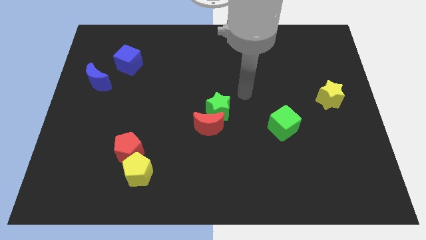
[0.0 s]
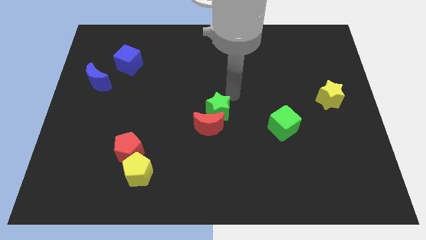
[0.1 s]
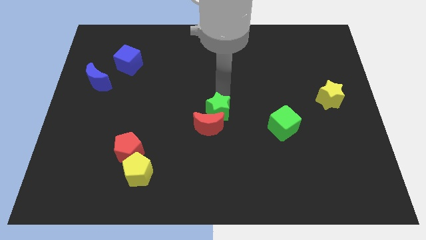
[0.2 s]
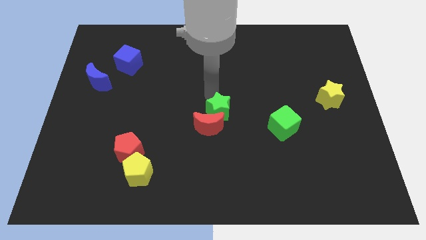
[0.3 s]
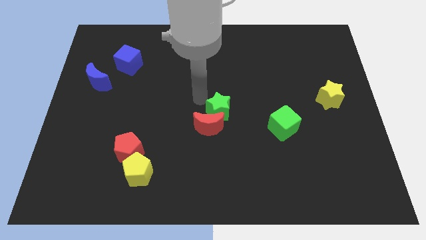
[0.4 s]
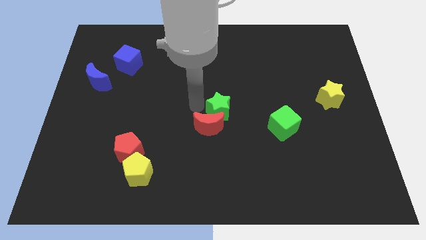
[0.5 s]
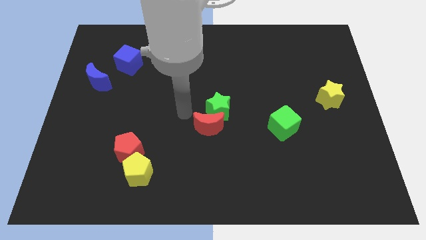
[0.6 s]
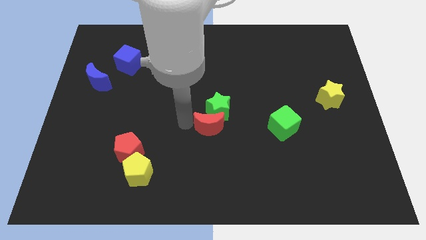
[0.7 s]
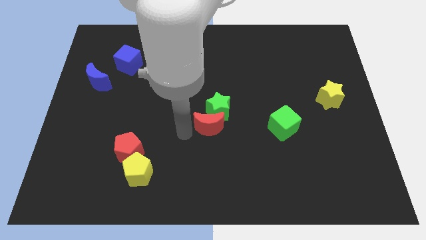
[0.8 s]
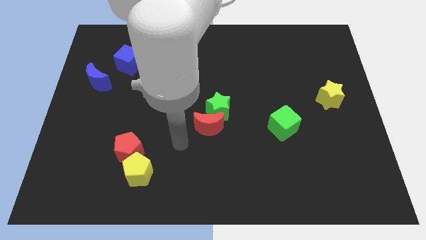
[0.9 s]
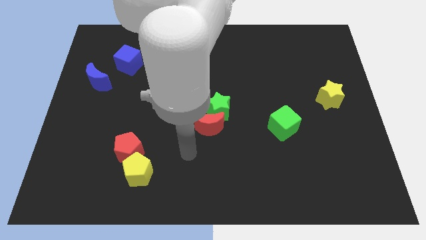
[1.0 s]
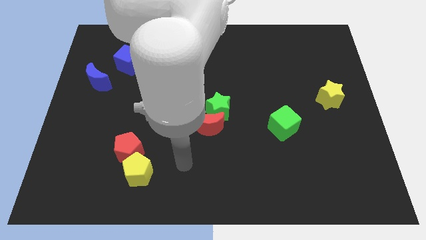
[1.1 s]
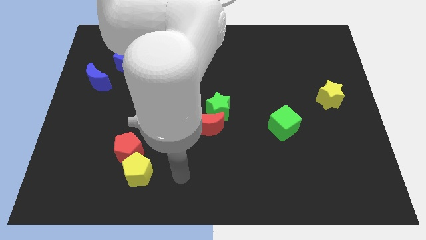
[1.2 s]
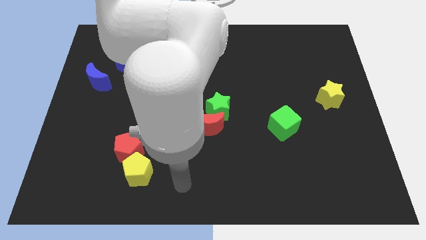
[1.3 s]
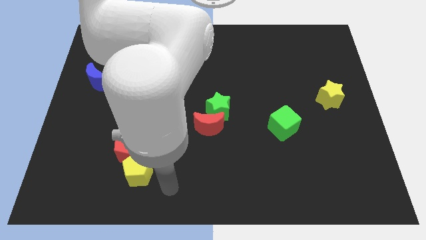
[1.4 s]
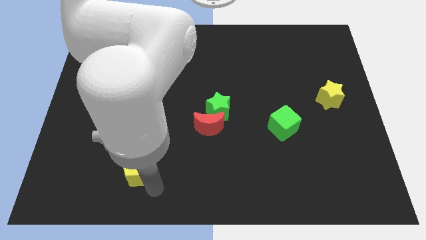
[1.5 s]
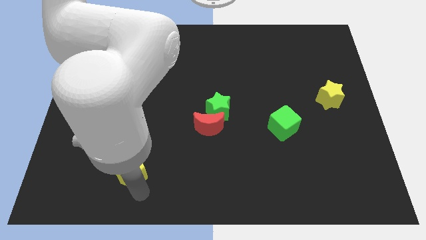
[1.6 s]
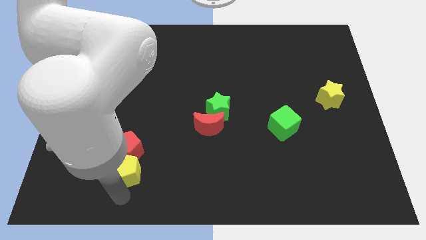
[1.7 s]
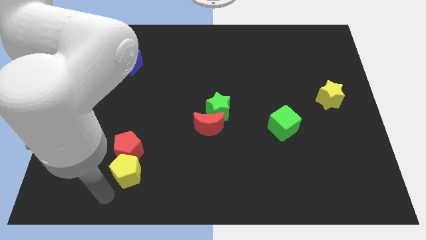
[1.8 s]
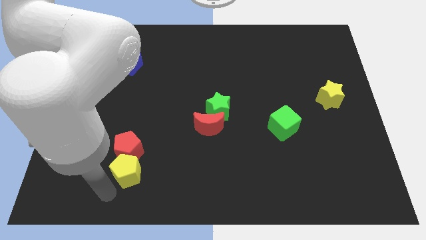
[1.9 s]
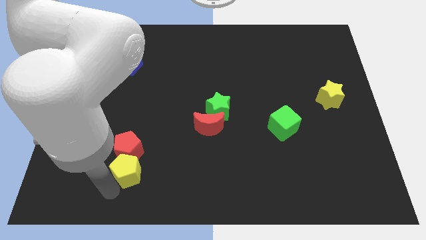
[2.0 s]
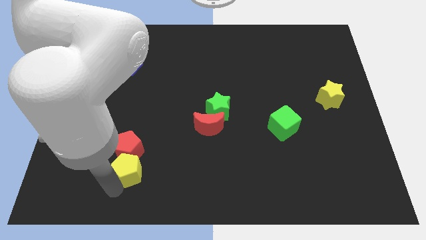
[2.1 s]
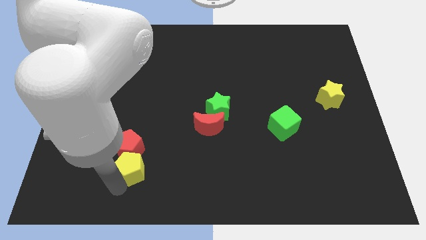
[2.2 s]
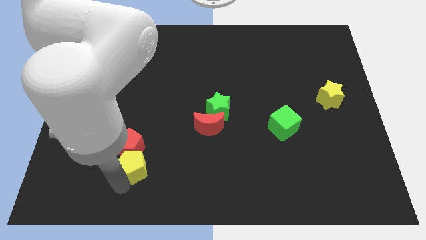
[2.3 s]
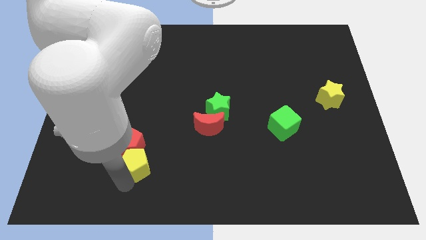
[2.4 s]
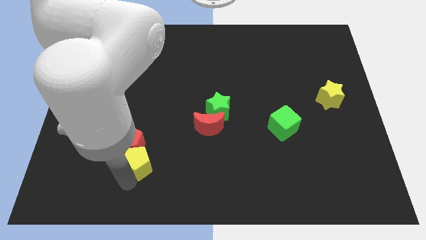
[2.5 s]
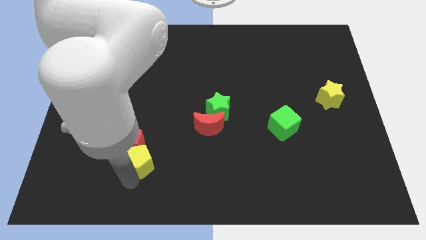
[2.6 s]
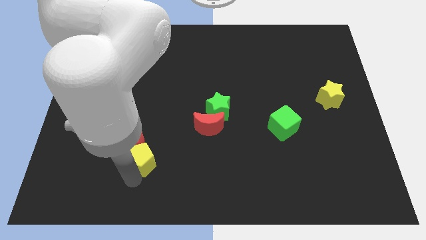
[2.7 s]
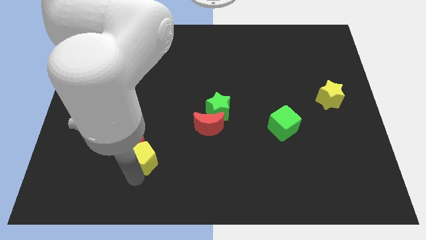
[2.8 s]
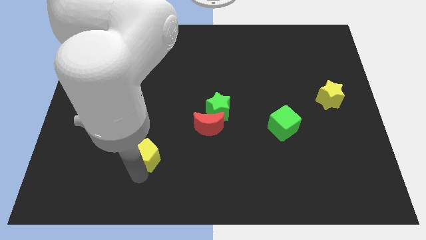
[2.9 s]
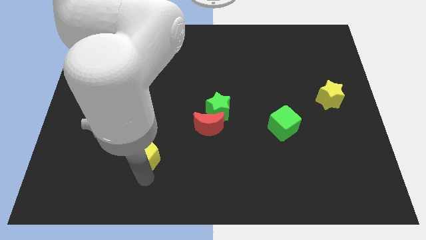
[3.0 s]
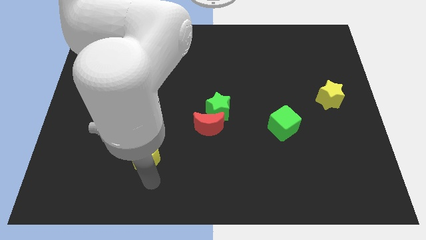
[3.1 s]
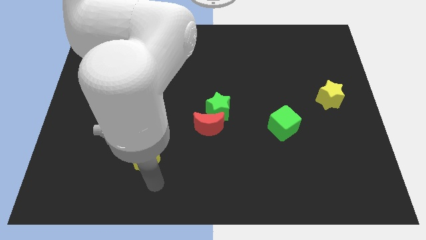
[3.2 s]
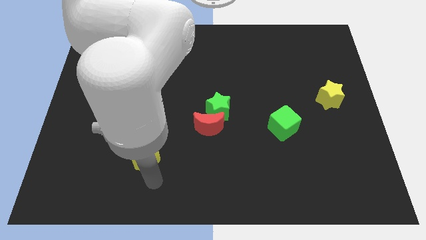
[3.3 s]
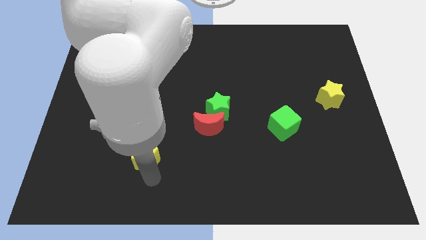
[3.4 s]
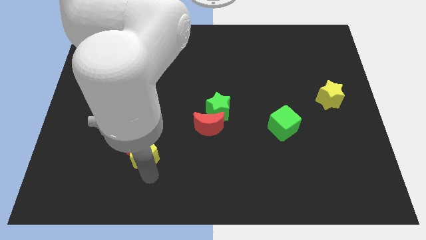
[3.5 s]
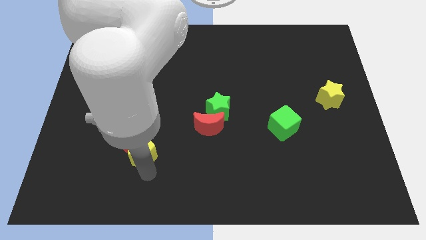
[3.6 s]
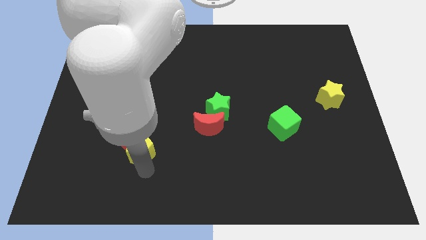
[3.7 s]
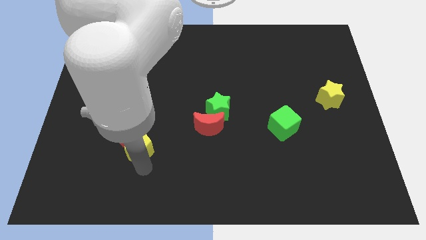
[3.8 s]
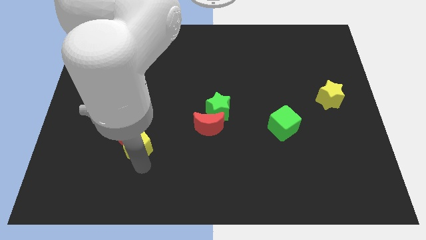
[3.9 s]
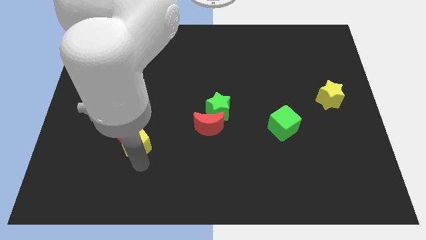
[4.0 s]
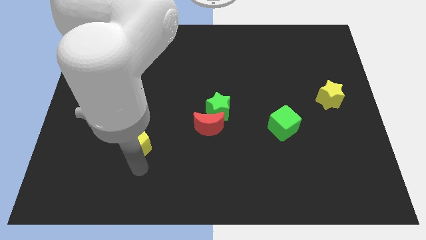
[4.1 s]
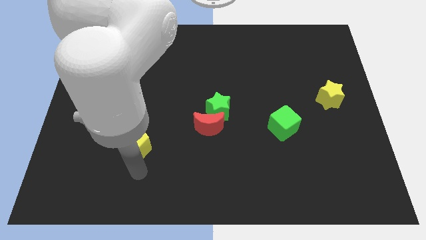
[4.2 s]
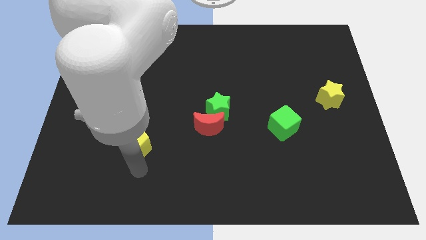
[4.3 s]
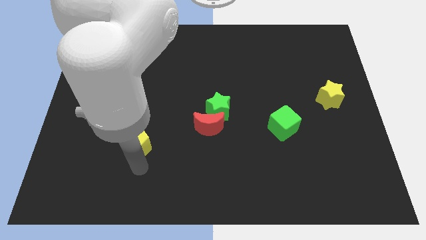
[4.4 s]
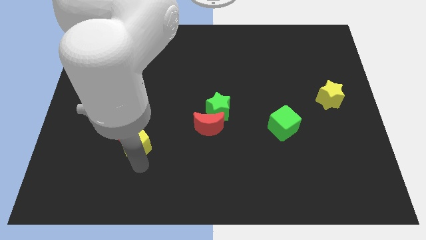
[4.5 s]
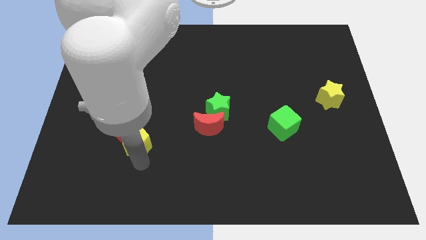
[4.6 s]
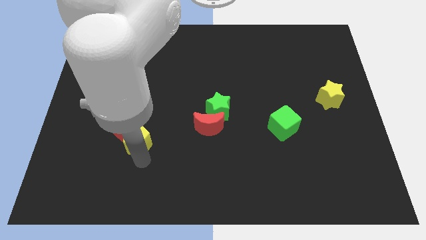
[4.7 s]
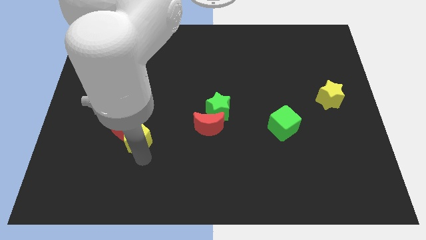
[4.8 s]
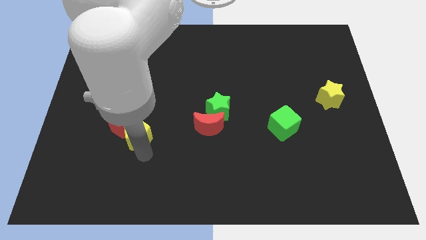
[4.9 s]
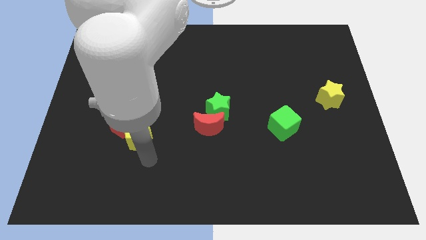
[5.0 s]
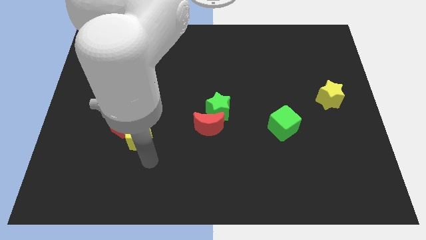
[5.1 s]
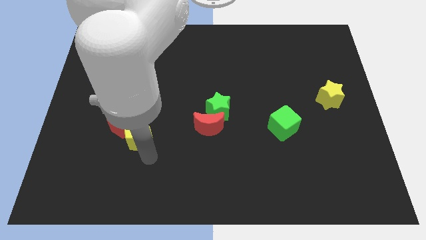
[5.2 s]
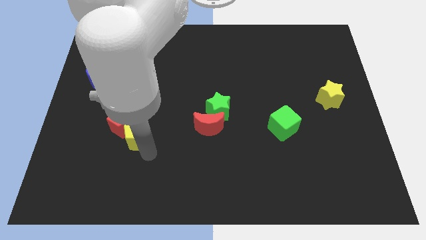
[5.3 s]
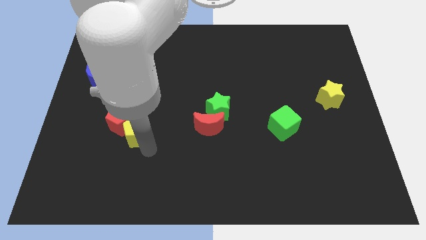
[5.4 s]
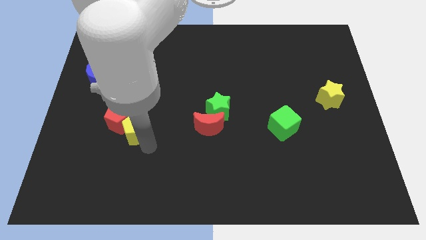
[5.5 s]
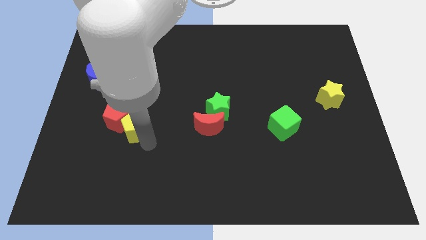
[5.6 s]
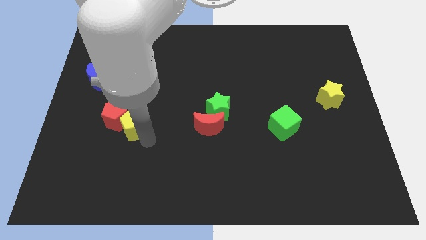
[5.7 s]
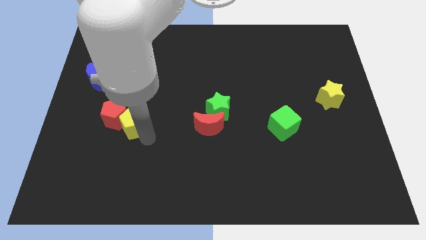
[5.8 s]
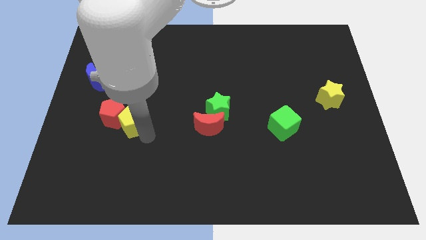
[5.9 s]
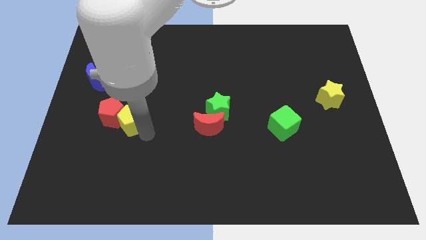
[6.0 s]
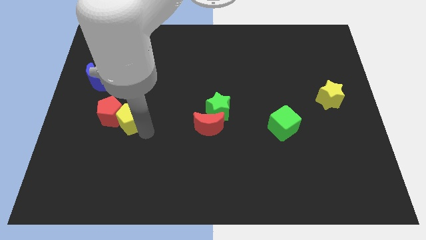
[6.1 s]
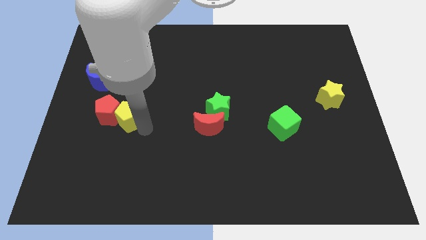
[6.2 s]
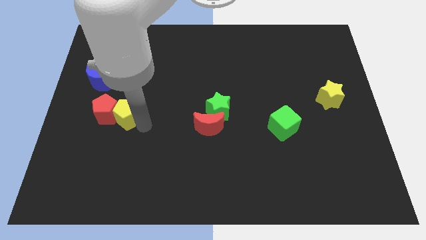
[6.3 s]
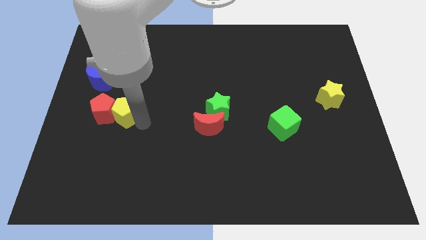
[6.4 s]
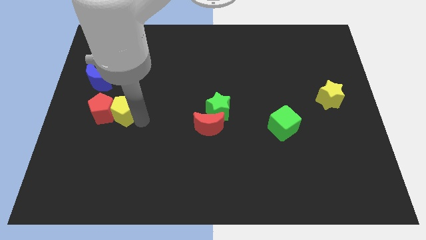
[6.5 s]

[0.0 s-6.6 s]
push the yellow pentagon to the bottom of the blue cube

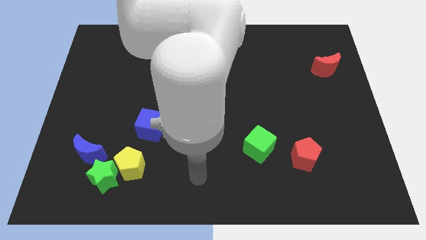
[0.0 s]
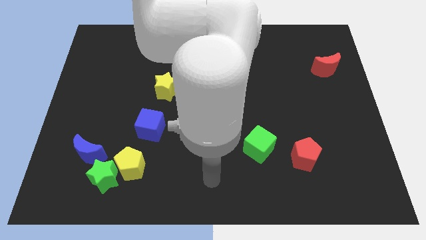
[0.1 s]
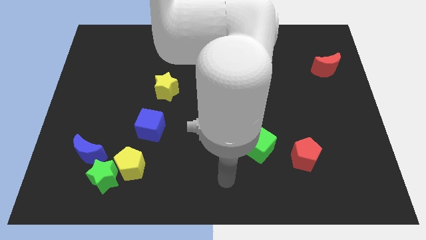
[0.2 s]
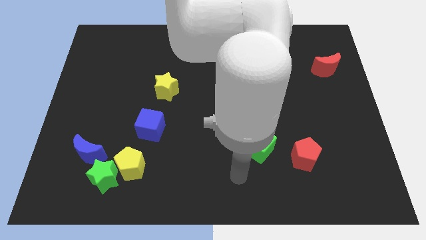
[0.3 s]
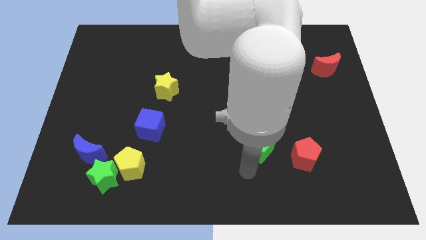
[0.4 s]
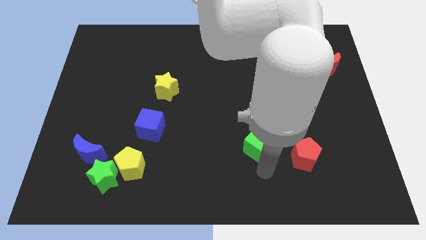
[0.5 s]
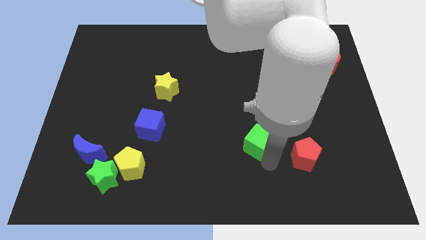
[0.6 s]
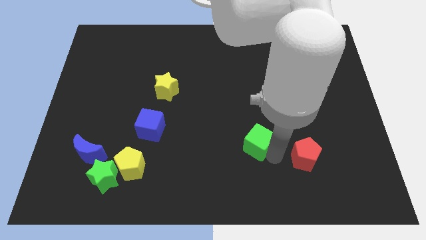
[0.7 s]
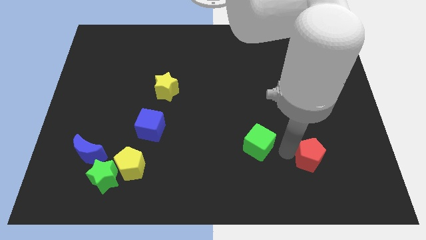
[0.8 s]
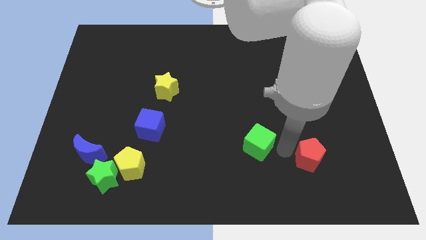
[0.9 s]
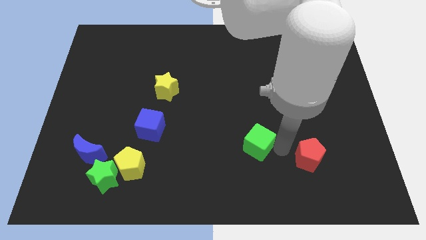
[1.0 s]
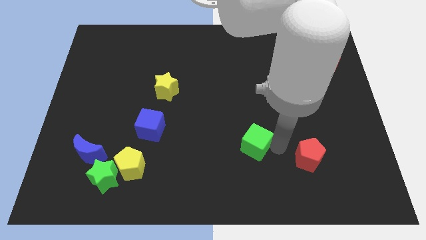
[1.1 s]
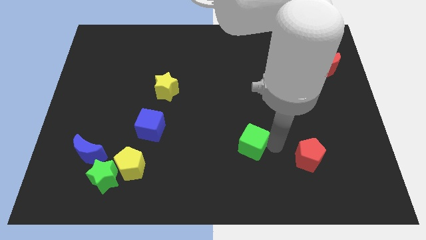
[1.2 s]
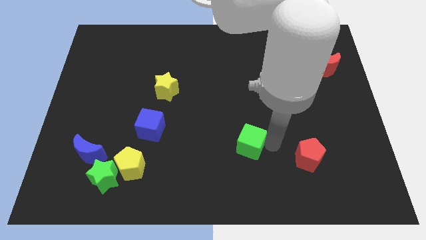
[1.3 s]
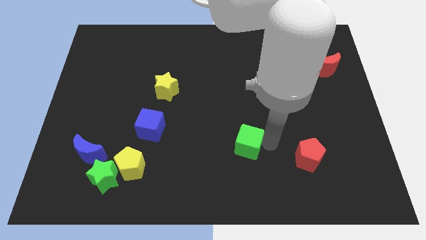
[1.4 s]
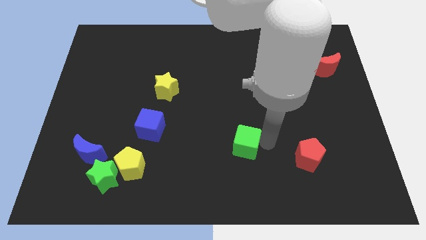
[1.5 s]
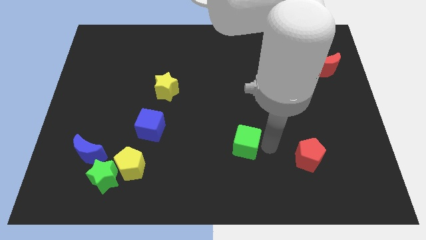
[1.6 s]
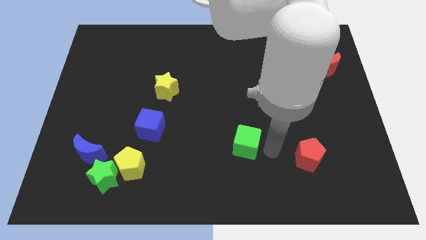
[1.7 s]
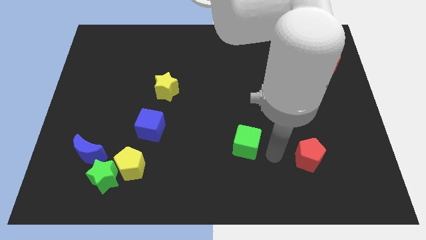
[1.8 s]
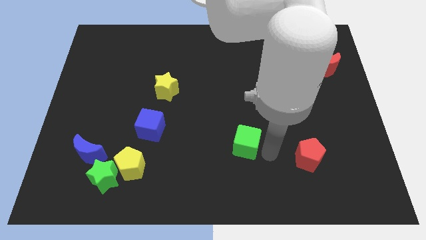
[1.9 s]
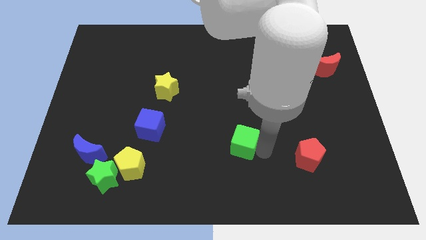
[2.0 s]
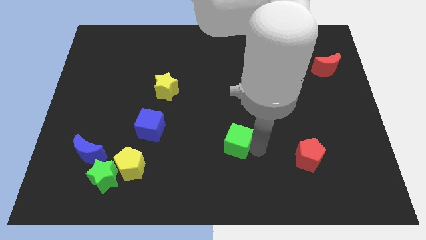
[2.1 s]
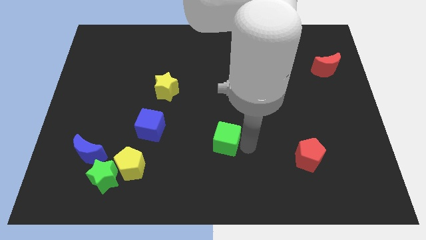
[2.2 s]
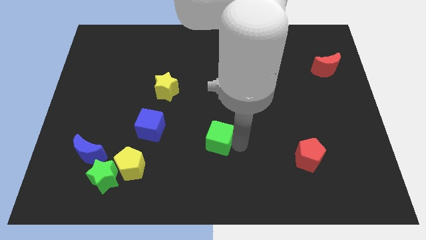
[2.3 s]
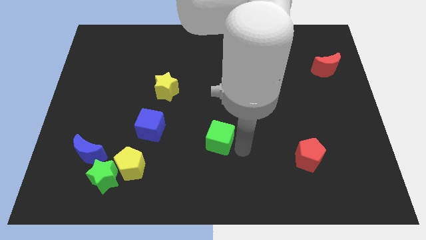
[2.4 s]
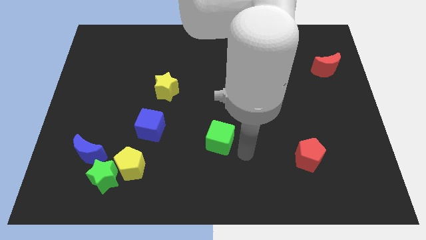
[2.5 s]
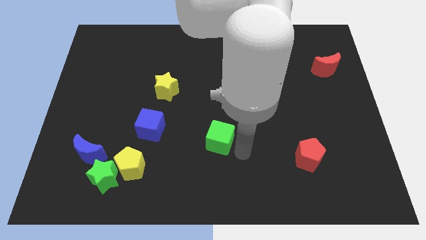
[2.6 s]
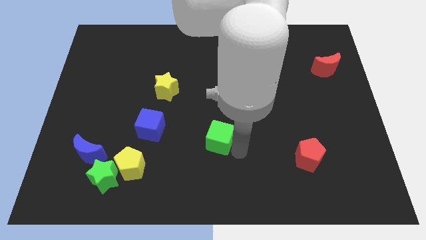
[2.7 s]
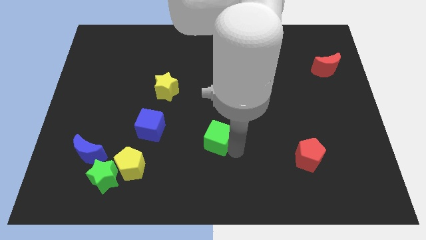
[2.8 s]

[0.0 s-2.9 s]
put the green cube just right of the blue cube
